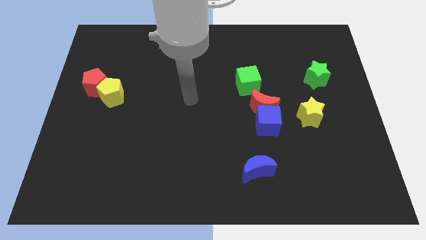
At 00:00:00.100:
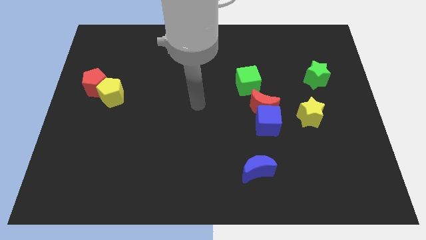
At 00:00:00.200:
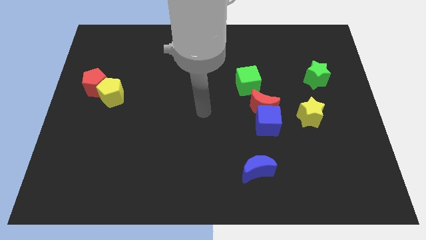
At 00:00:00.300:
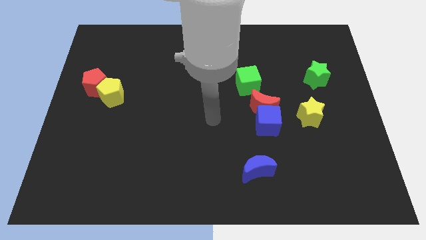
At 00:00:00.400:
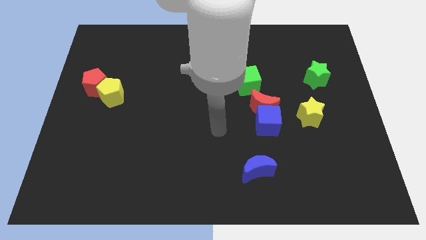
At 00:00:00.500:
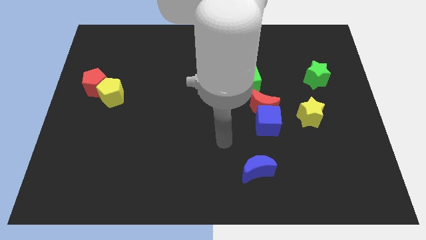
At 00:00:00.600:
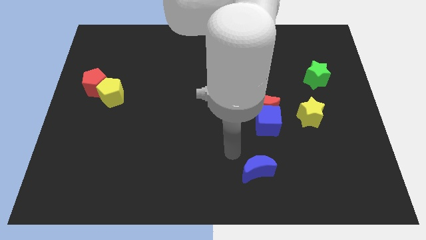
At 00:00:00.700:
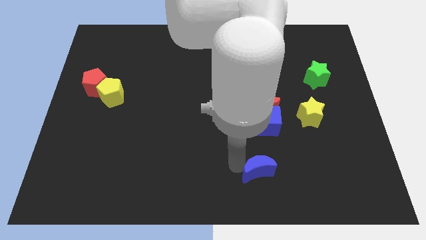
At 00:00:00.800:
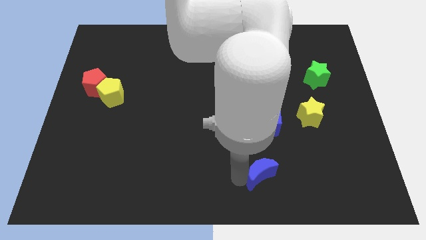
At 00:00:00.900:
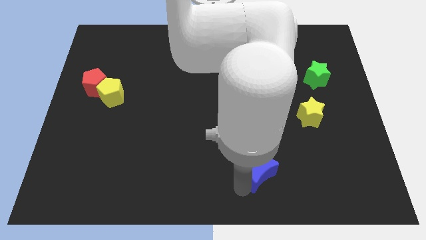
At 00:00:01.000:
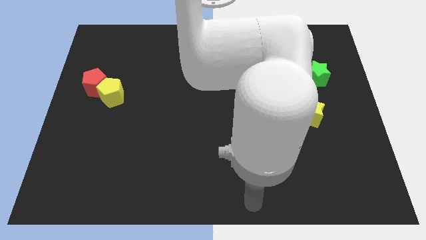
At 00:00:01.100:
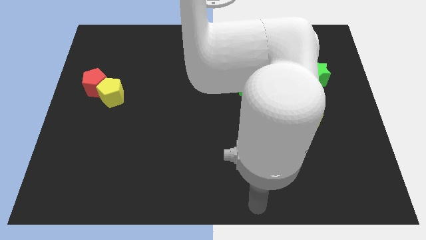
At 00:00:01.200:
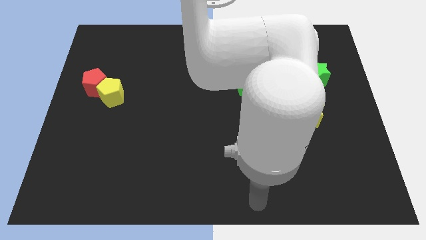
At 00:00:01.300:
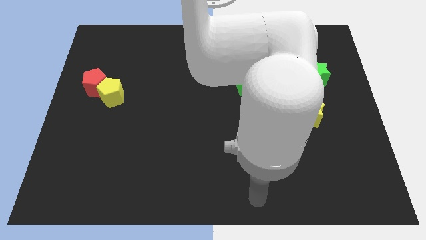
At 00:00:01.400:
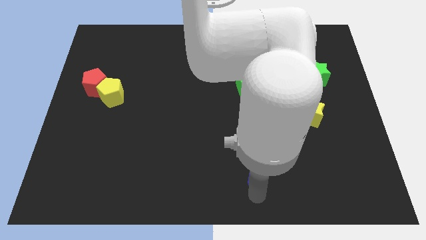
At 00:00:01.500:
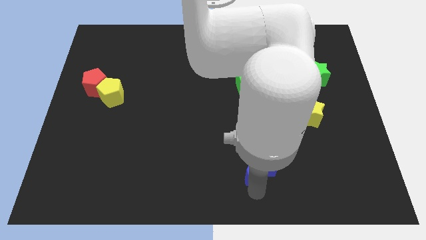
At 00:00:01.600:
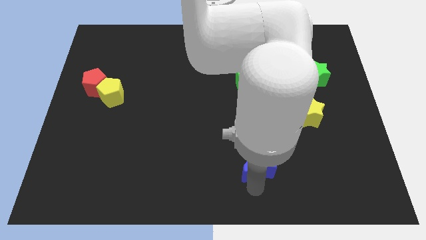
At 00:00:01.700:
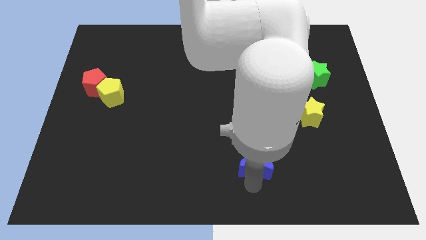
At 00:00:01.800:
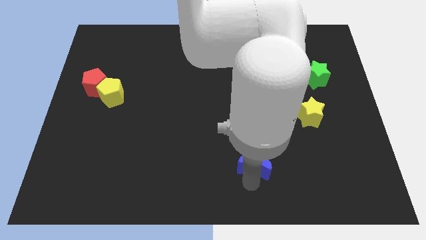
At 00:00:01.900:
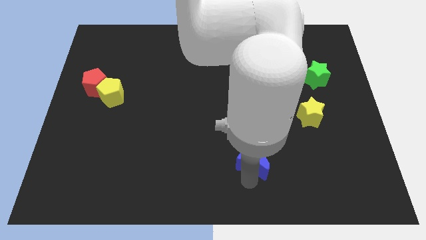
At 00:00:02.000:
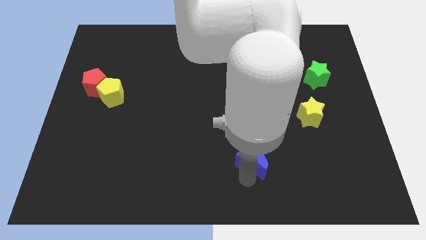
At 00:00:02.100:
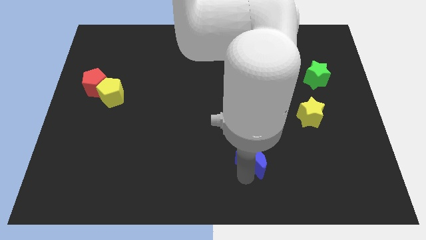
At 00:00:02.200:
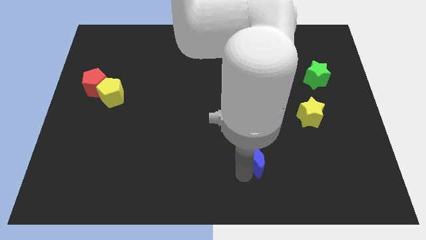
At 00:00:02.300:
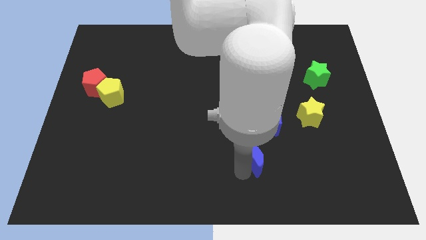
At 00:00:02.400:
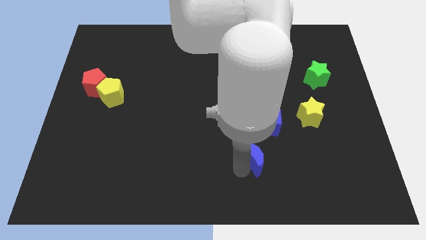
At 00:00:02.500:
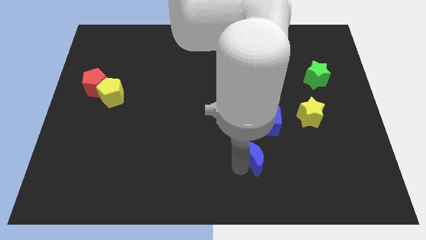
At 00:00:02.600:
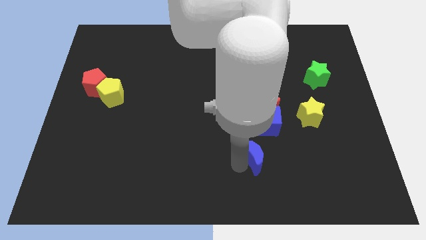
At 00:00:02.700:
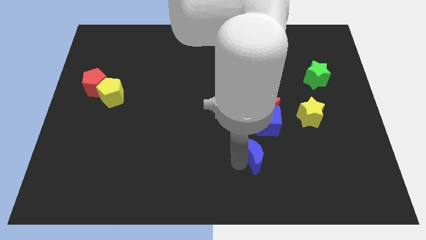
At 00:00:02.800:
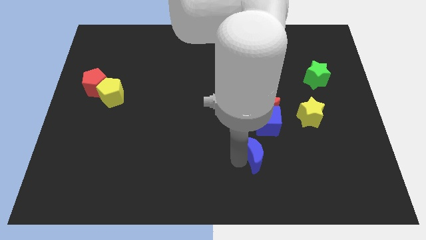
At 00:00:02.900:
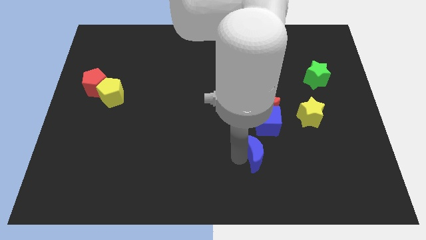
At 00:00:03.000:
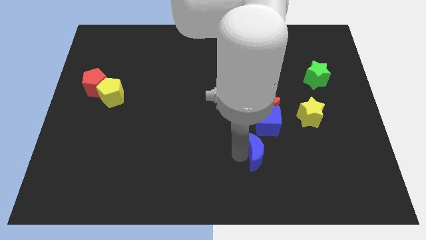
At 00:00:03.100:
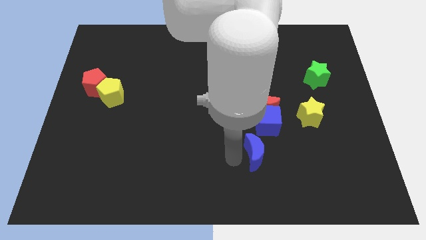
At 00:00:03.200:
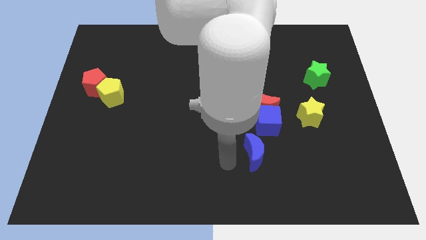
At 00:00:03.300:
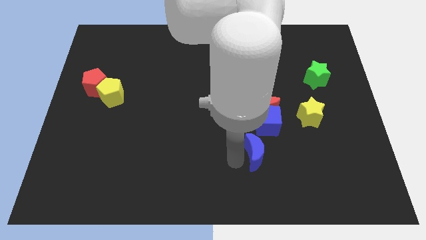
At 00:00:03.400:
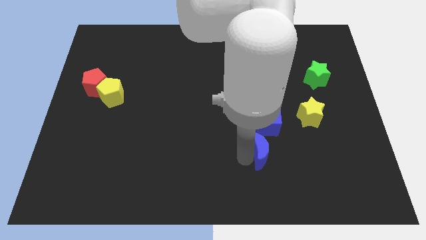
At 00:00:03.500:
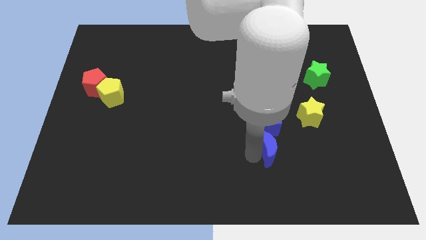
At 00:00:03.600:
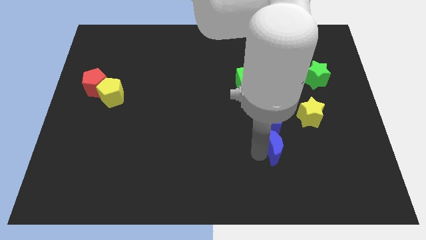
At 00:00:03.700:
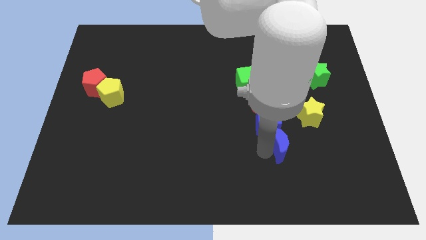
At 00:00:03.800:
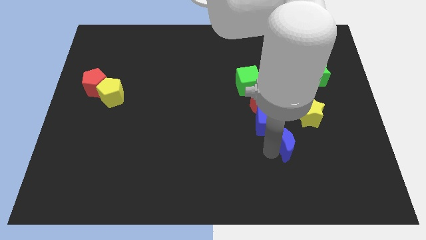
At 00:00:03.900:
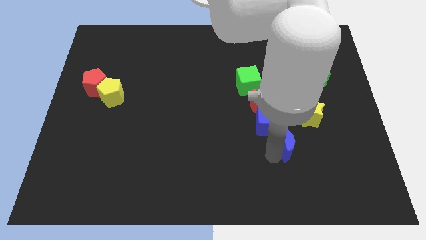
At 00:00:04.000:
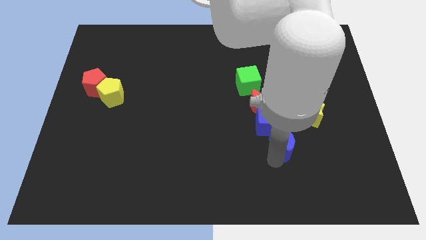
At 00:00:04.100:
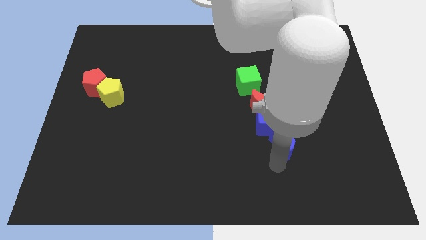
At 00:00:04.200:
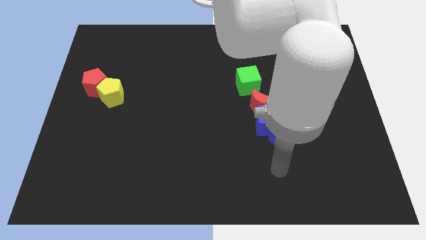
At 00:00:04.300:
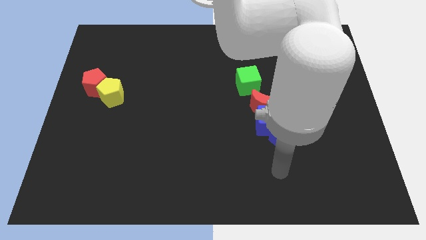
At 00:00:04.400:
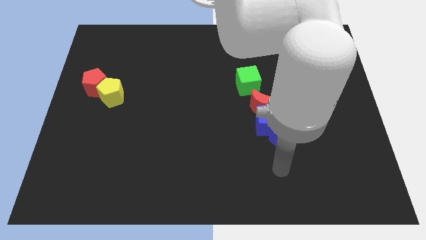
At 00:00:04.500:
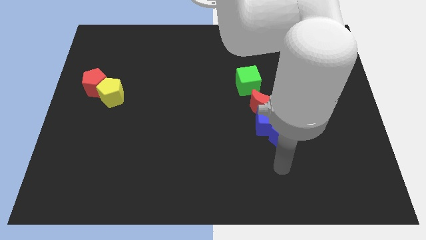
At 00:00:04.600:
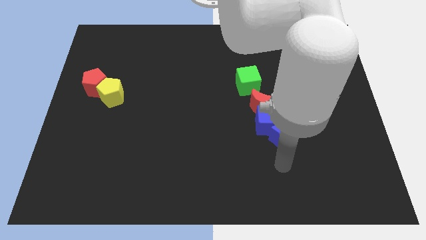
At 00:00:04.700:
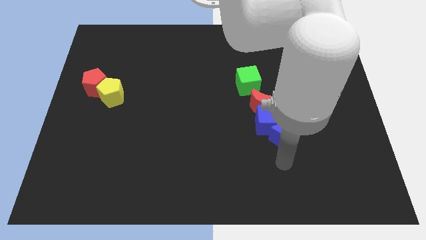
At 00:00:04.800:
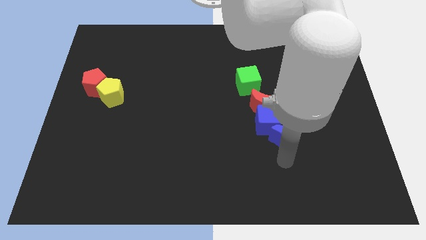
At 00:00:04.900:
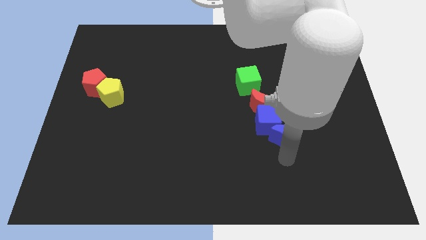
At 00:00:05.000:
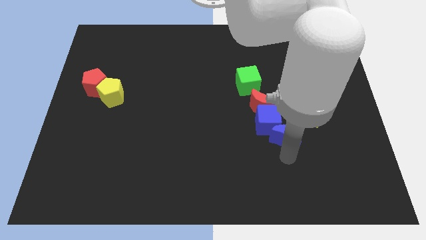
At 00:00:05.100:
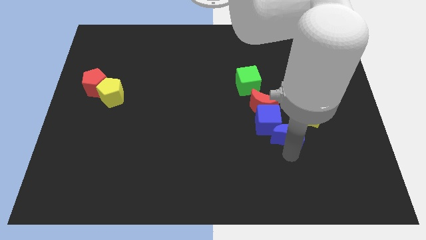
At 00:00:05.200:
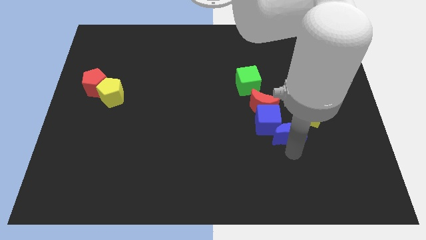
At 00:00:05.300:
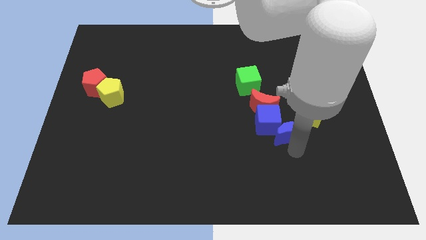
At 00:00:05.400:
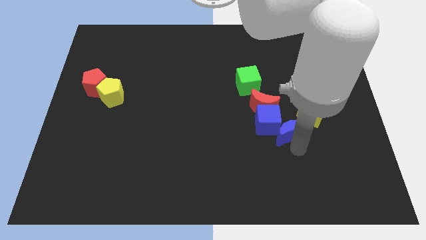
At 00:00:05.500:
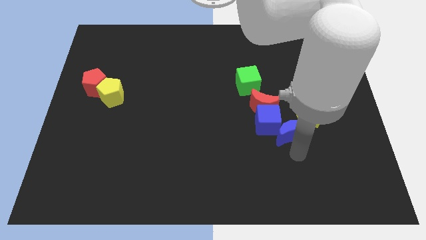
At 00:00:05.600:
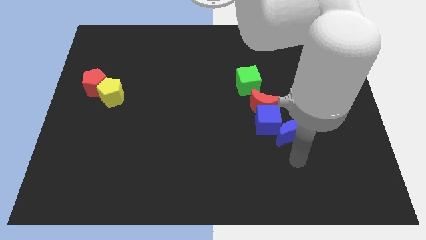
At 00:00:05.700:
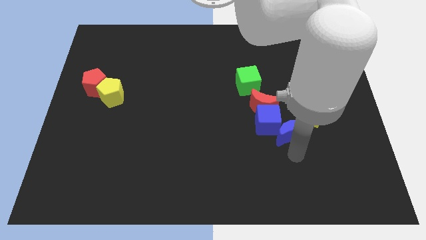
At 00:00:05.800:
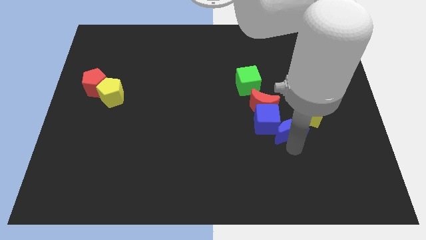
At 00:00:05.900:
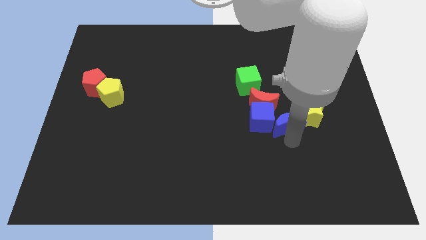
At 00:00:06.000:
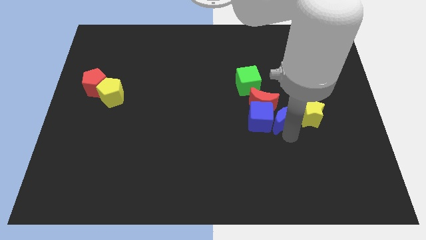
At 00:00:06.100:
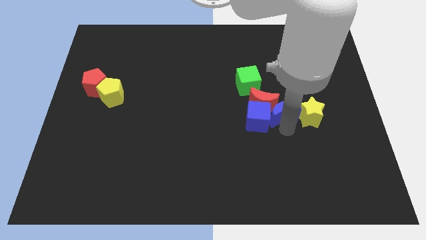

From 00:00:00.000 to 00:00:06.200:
slide the blue moon to the top left side of the yellow star
